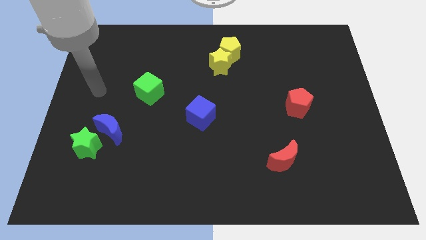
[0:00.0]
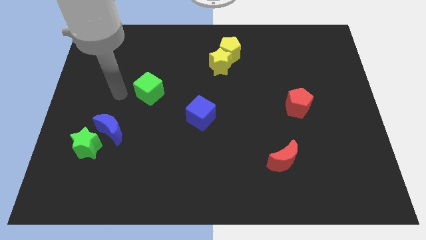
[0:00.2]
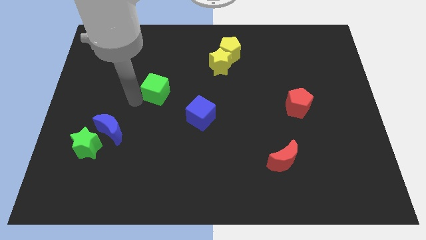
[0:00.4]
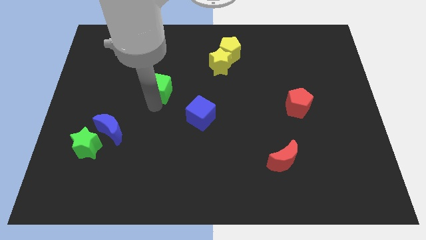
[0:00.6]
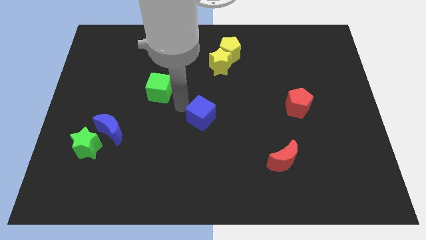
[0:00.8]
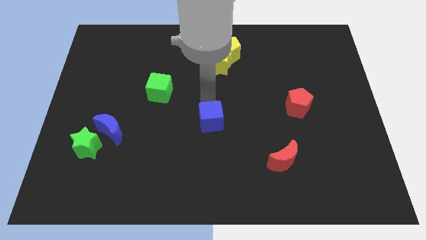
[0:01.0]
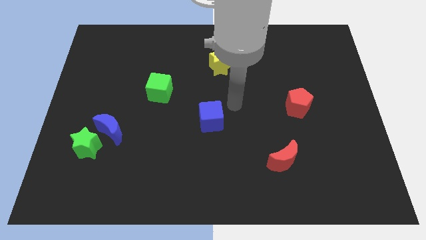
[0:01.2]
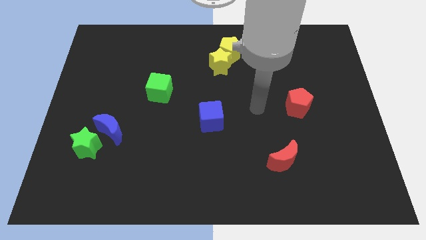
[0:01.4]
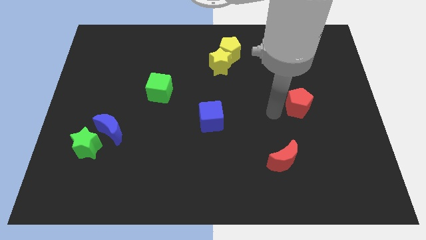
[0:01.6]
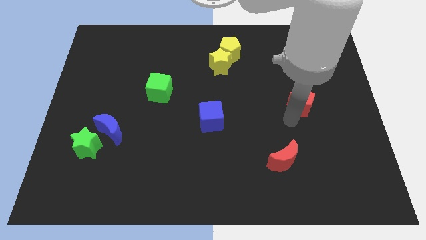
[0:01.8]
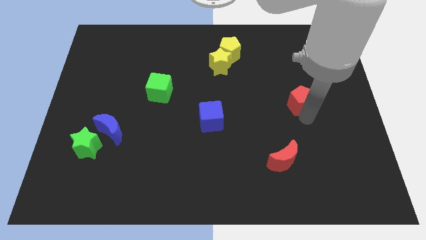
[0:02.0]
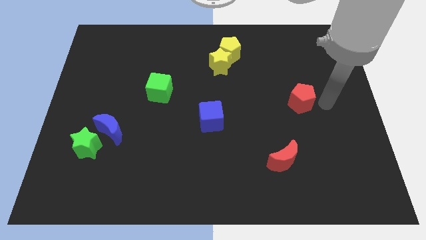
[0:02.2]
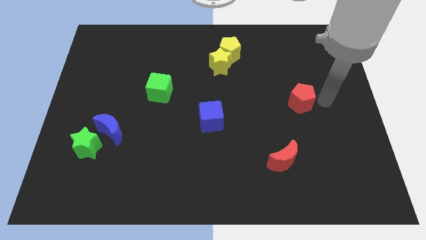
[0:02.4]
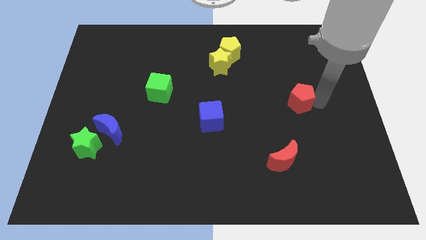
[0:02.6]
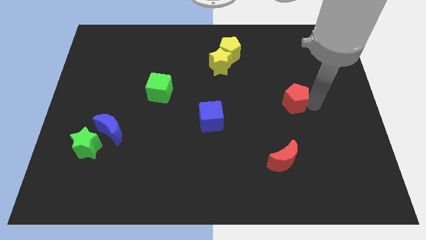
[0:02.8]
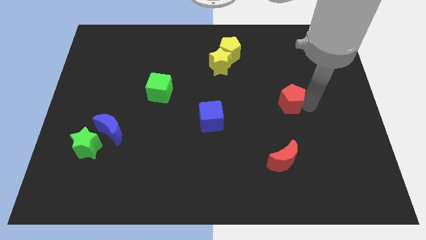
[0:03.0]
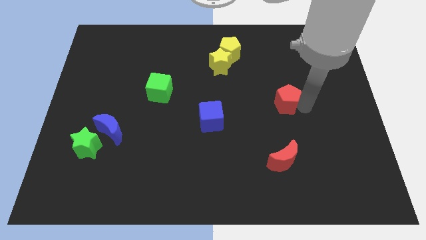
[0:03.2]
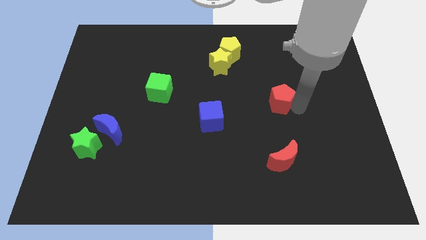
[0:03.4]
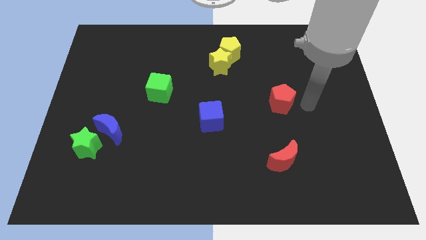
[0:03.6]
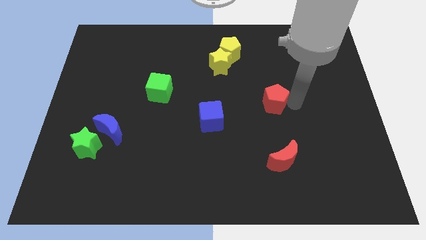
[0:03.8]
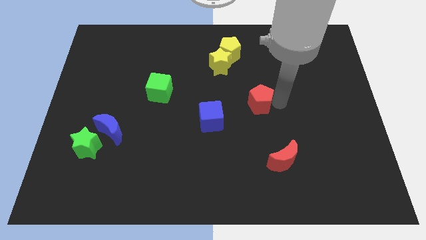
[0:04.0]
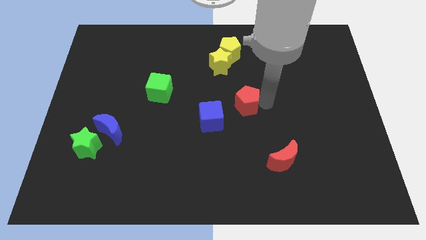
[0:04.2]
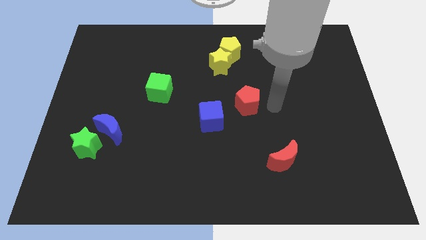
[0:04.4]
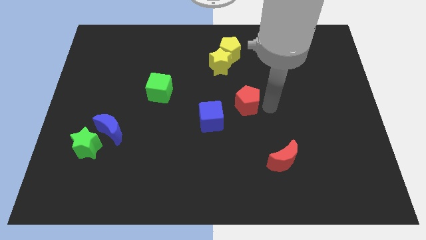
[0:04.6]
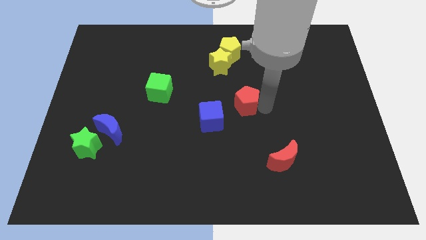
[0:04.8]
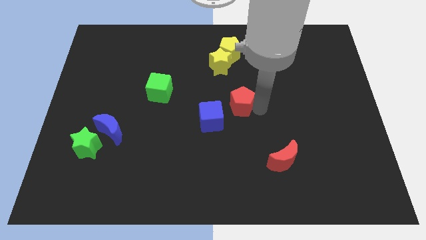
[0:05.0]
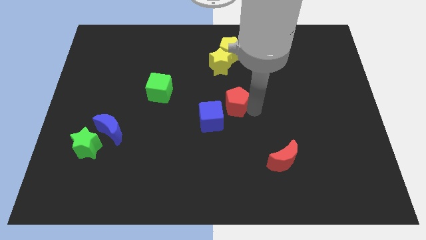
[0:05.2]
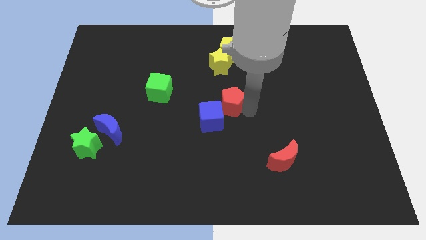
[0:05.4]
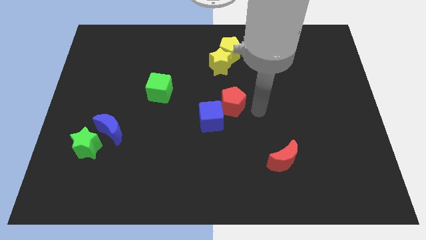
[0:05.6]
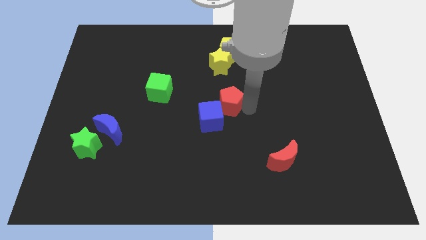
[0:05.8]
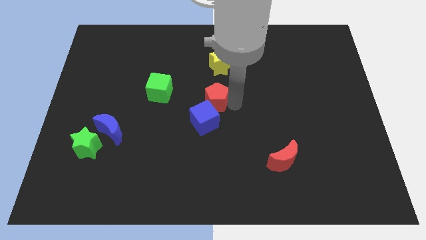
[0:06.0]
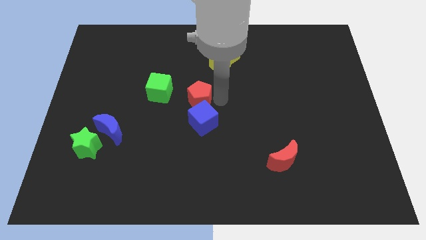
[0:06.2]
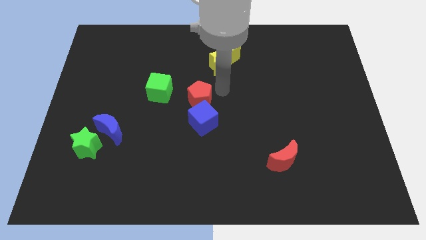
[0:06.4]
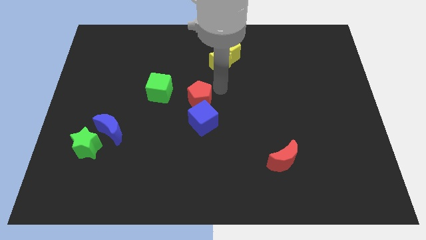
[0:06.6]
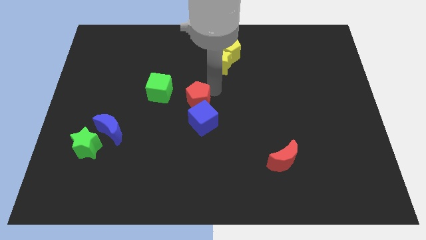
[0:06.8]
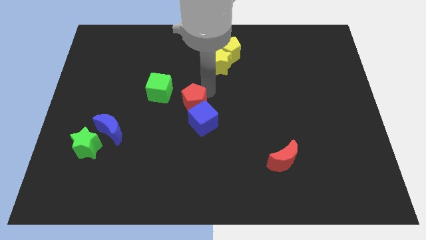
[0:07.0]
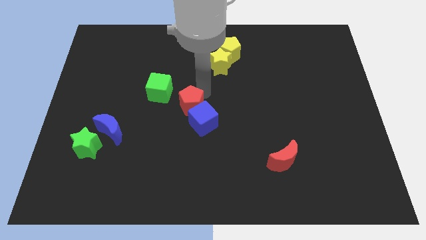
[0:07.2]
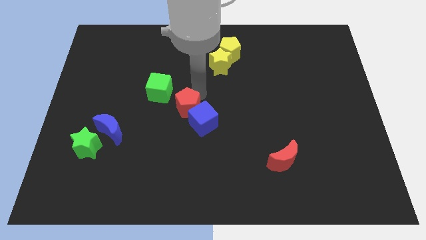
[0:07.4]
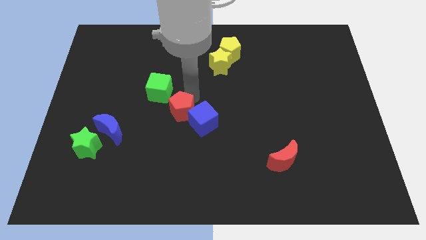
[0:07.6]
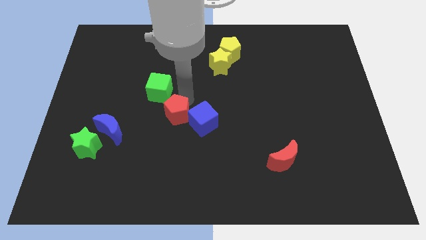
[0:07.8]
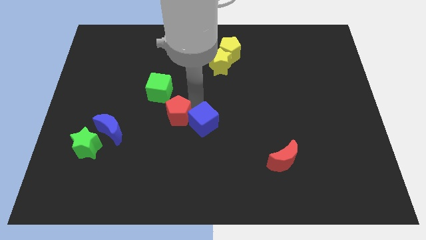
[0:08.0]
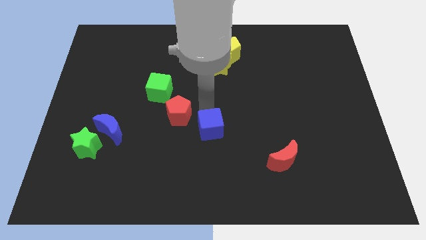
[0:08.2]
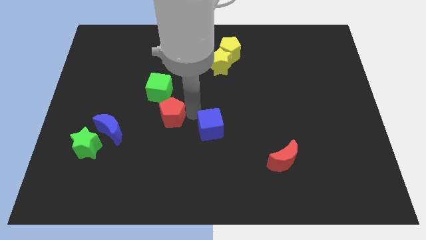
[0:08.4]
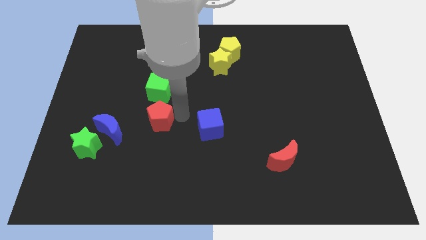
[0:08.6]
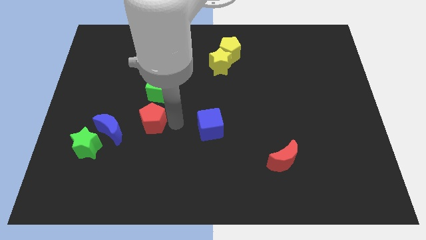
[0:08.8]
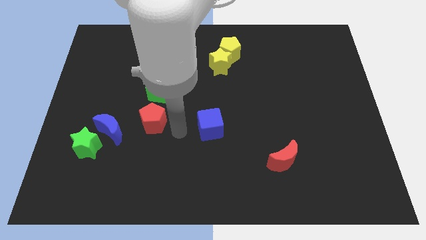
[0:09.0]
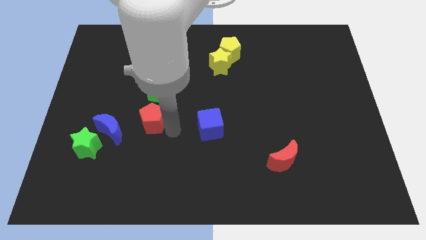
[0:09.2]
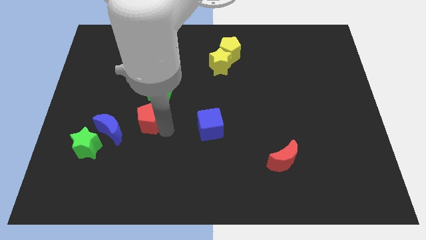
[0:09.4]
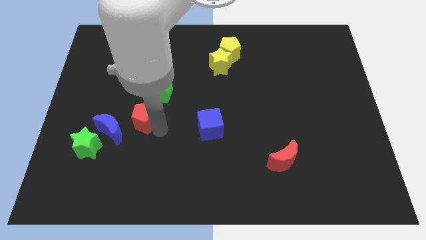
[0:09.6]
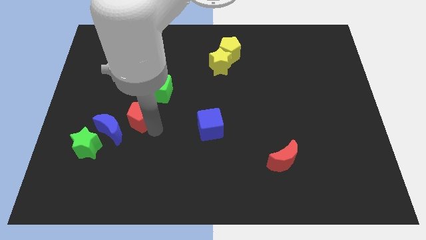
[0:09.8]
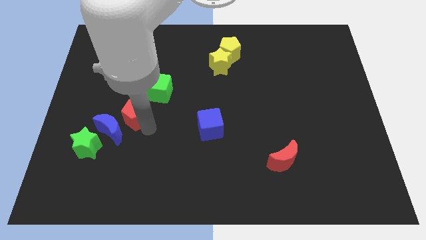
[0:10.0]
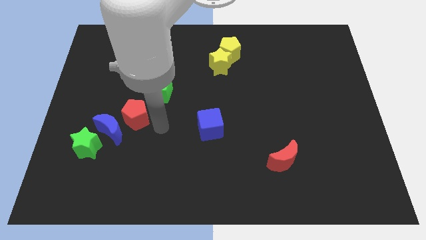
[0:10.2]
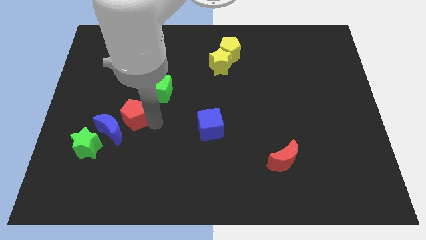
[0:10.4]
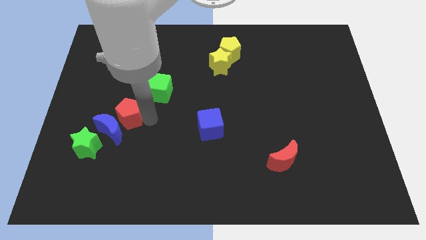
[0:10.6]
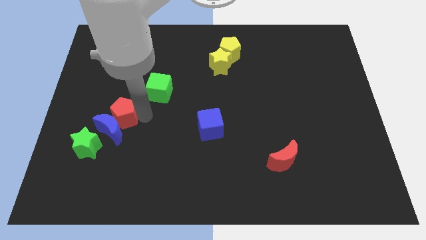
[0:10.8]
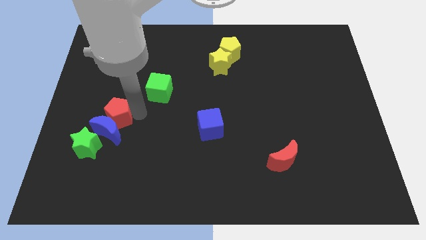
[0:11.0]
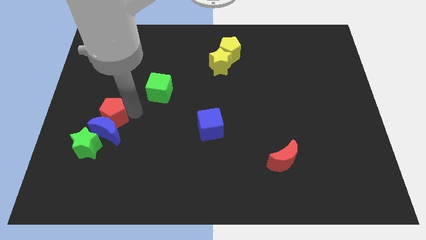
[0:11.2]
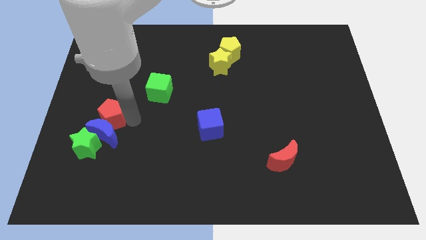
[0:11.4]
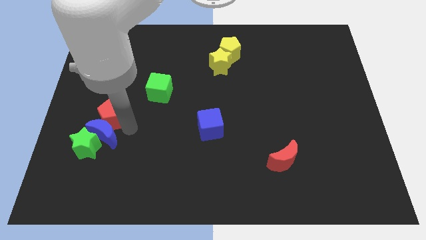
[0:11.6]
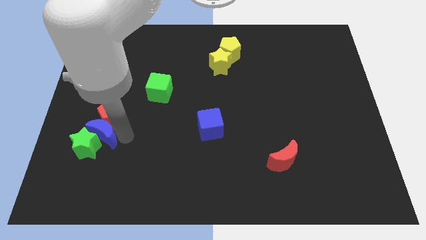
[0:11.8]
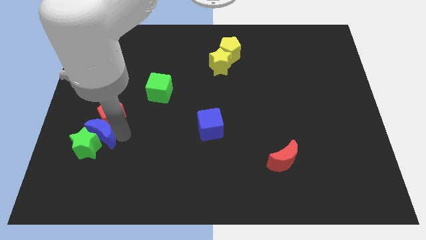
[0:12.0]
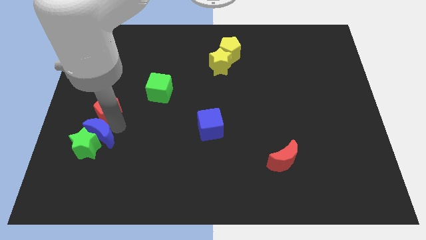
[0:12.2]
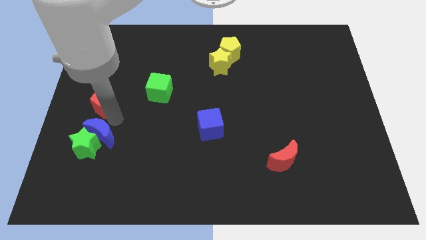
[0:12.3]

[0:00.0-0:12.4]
put the red pentagon to the left side
